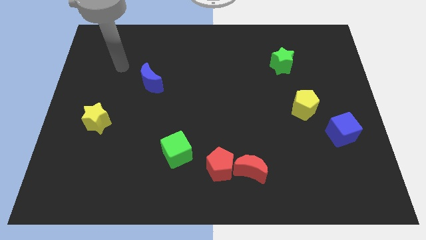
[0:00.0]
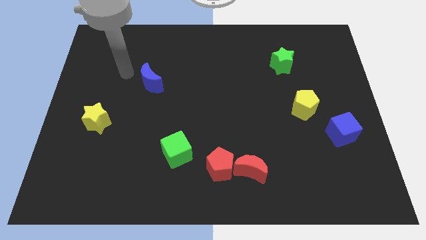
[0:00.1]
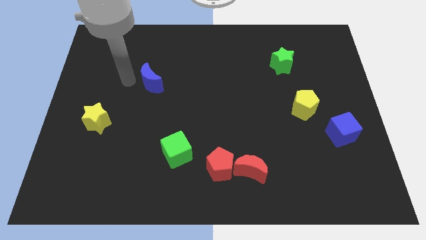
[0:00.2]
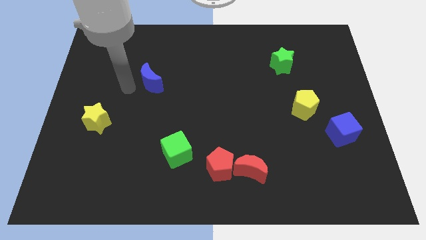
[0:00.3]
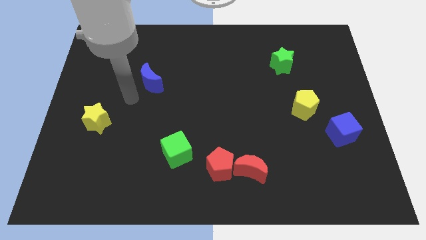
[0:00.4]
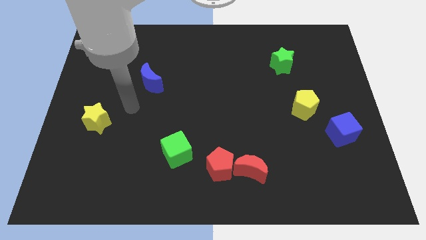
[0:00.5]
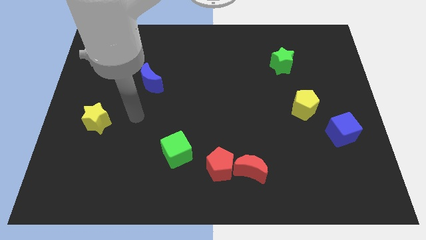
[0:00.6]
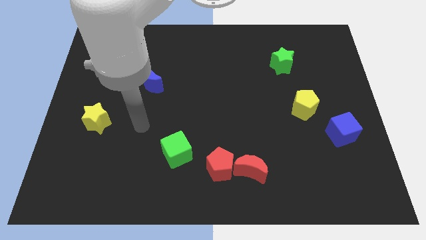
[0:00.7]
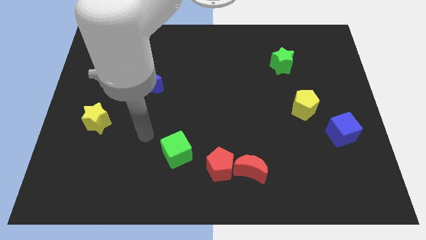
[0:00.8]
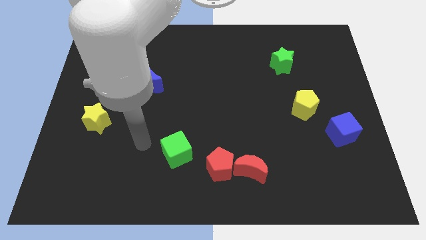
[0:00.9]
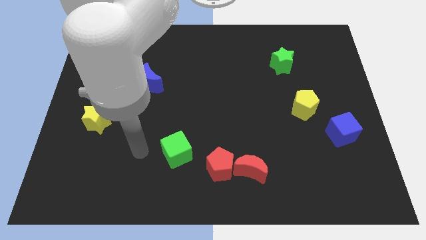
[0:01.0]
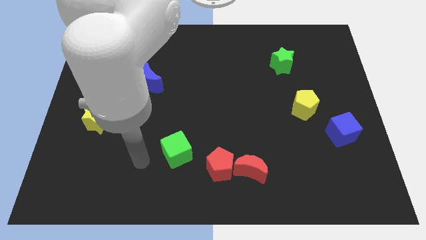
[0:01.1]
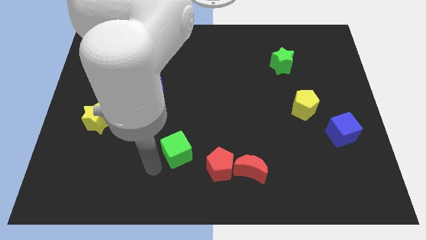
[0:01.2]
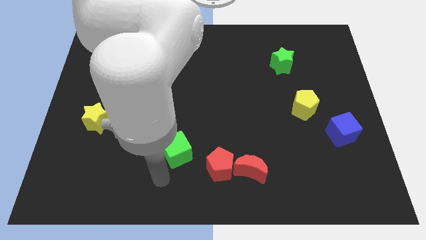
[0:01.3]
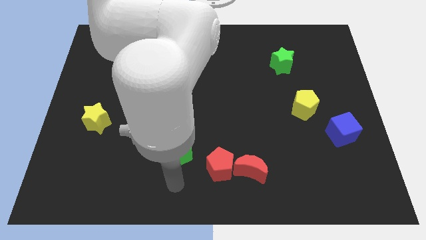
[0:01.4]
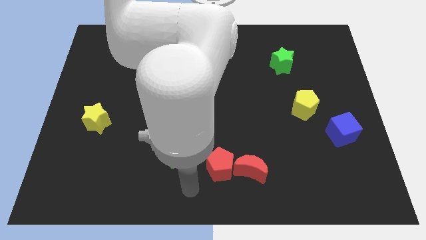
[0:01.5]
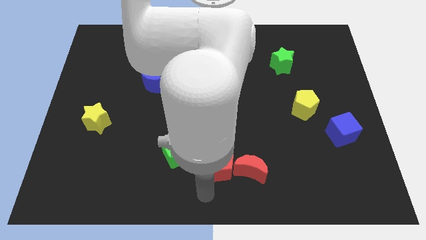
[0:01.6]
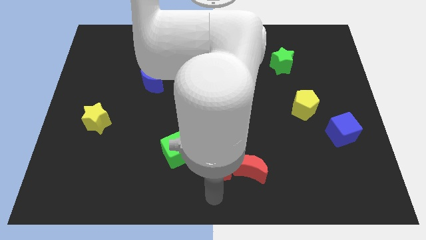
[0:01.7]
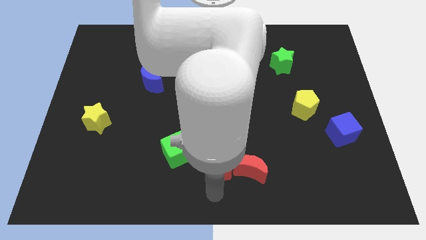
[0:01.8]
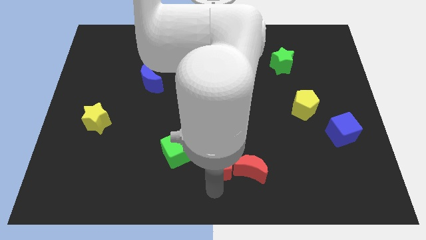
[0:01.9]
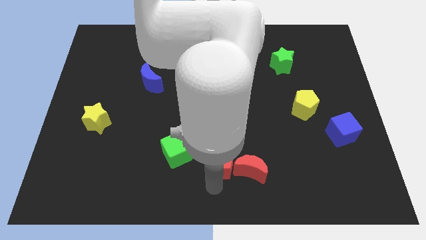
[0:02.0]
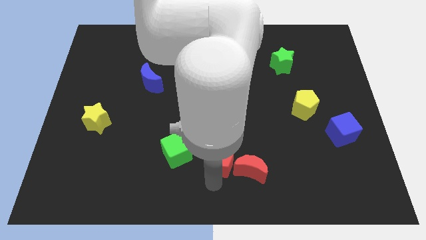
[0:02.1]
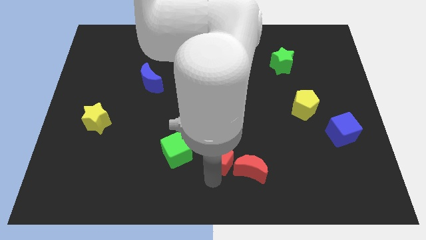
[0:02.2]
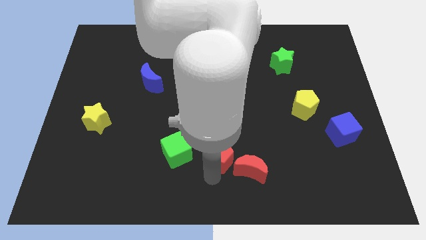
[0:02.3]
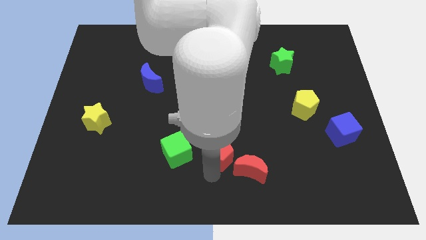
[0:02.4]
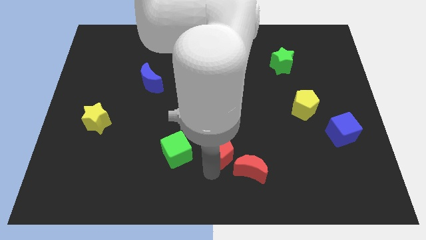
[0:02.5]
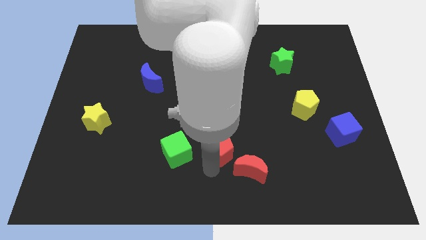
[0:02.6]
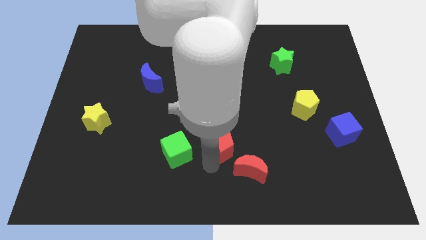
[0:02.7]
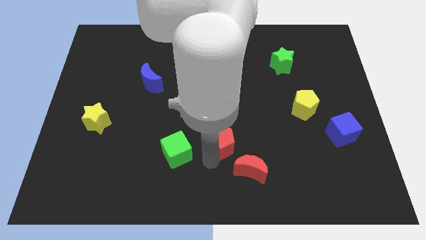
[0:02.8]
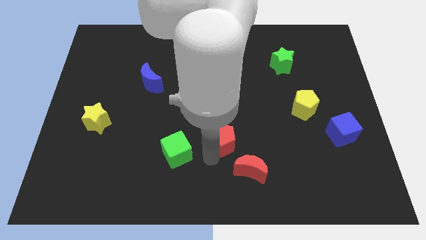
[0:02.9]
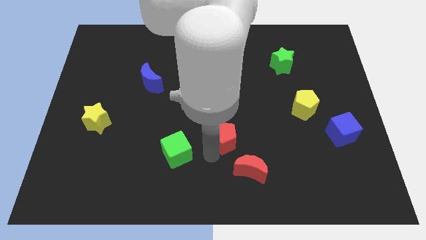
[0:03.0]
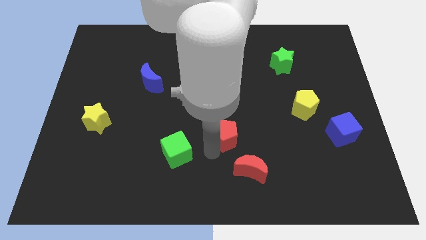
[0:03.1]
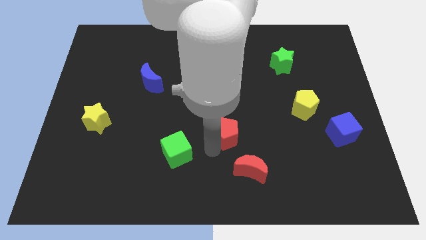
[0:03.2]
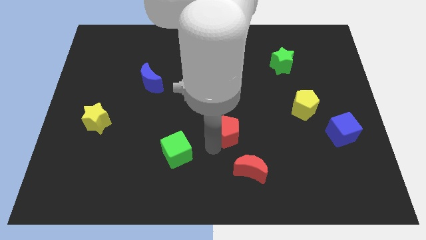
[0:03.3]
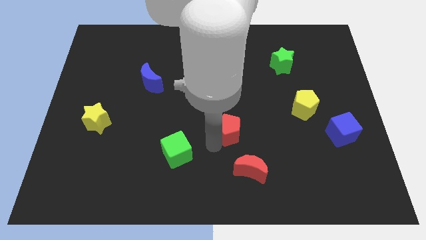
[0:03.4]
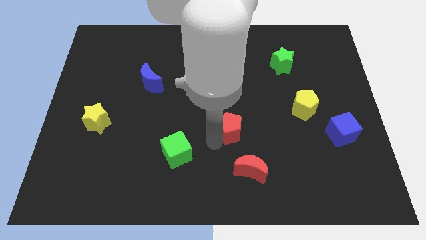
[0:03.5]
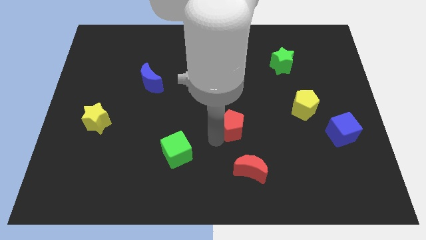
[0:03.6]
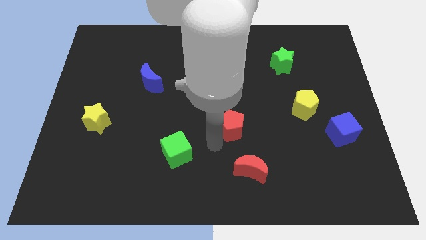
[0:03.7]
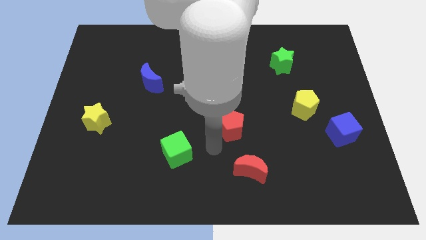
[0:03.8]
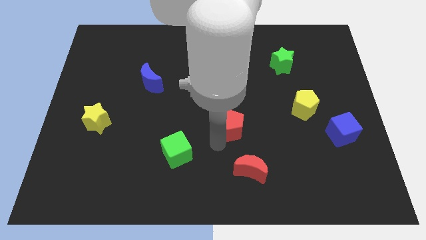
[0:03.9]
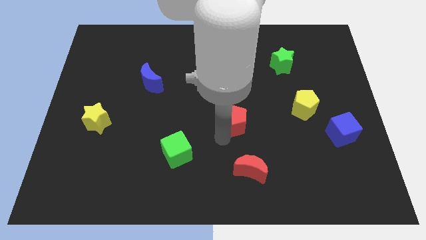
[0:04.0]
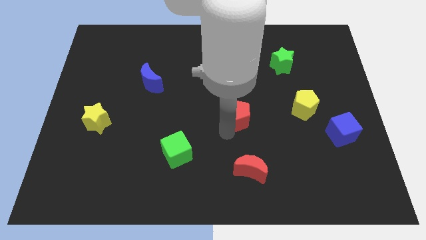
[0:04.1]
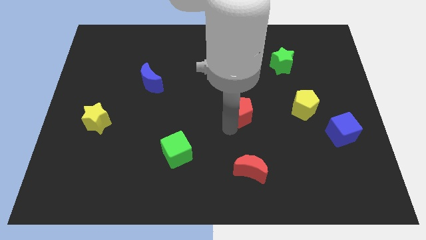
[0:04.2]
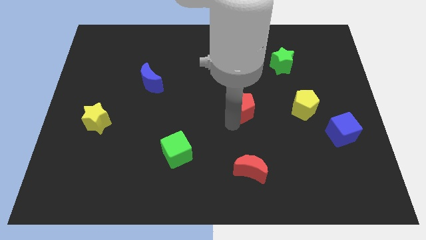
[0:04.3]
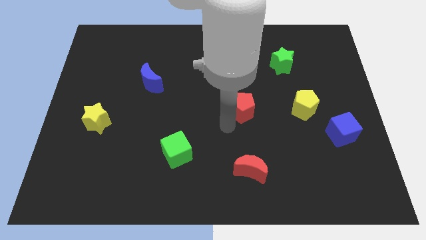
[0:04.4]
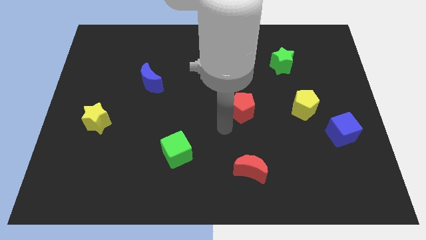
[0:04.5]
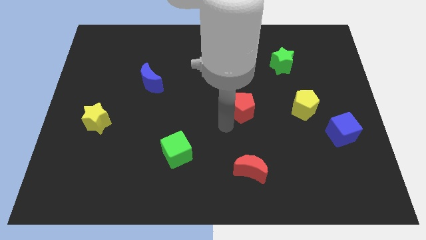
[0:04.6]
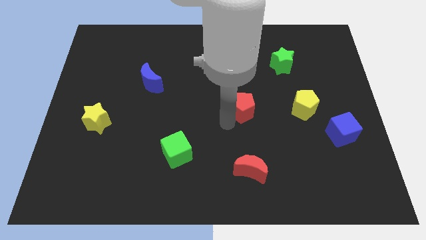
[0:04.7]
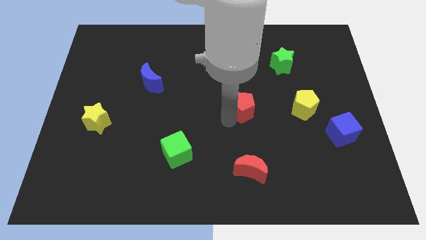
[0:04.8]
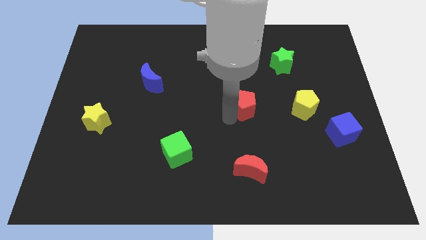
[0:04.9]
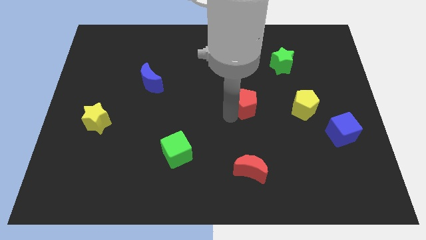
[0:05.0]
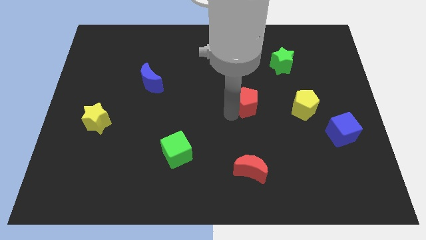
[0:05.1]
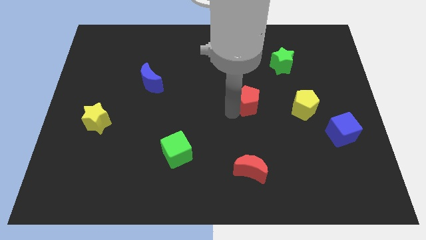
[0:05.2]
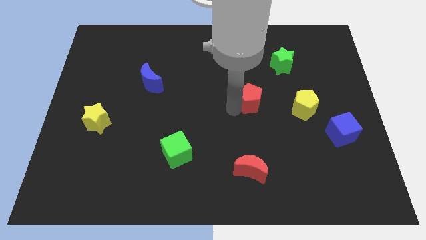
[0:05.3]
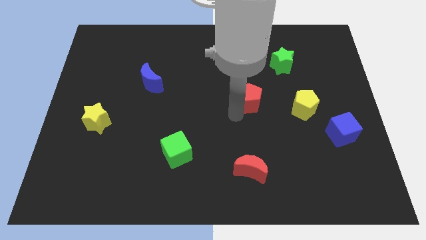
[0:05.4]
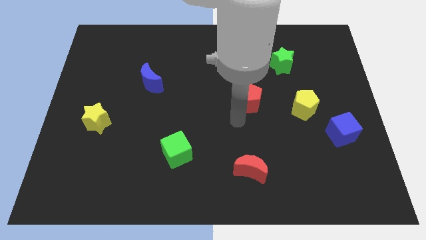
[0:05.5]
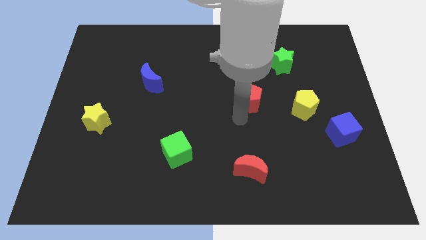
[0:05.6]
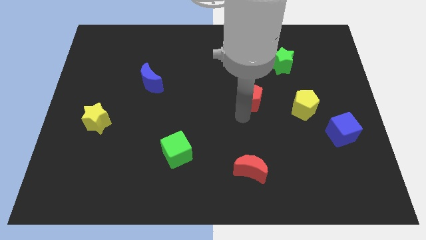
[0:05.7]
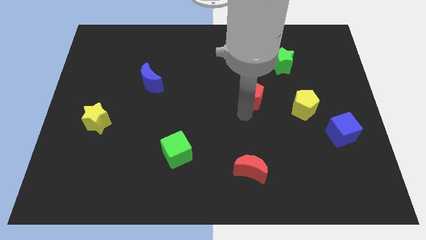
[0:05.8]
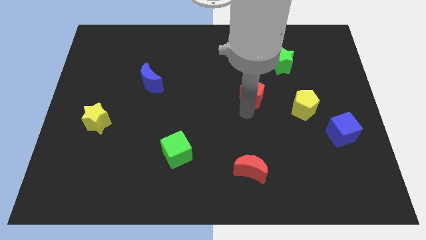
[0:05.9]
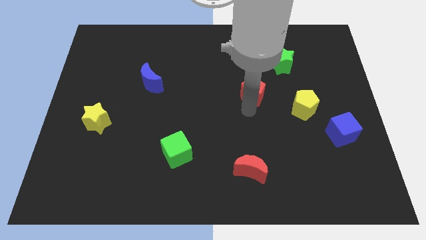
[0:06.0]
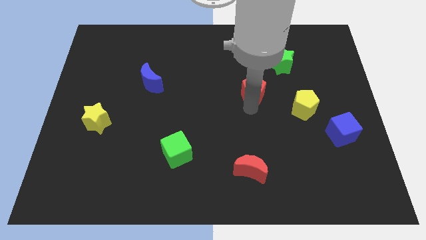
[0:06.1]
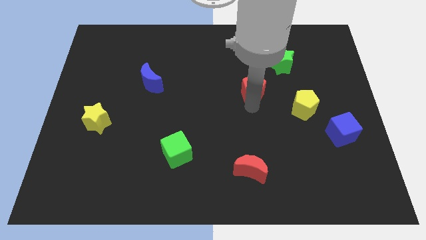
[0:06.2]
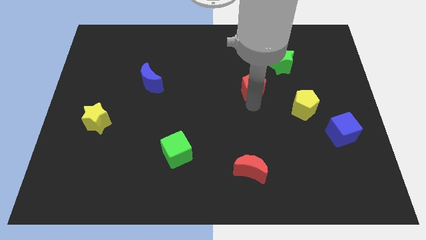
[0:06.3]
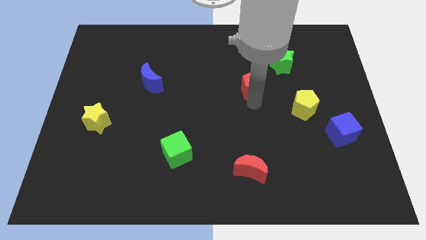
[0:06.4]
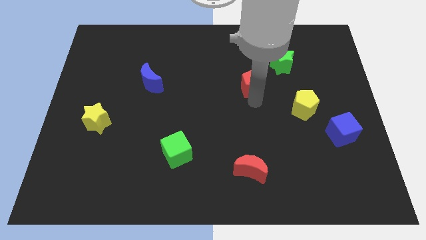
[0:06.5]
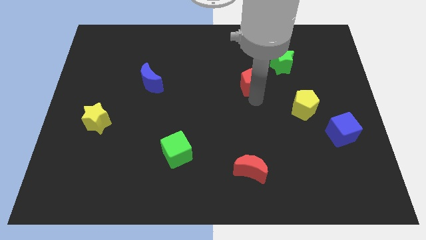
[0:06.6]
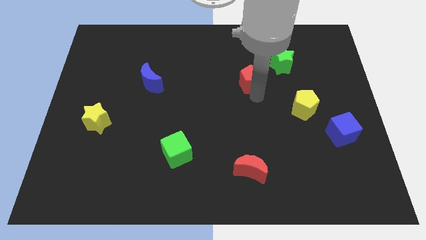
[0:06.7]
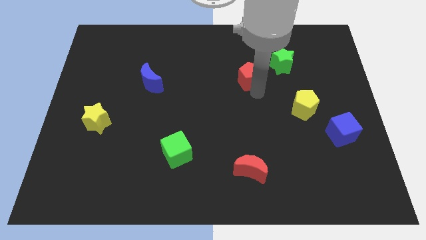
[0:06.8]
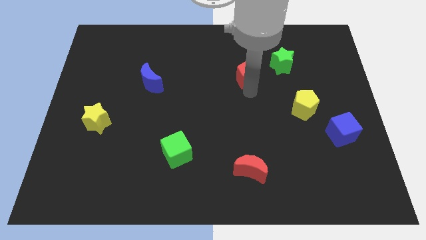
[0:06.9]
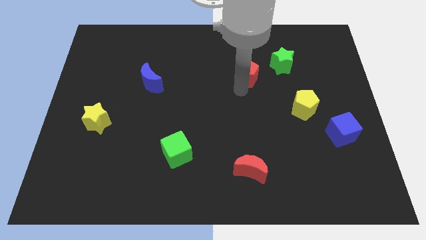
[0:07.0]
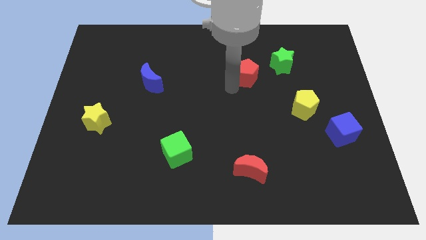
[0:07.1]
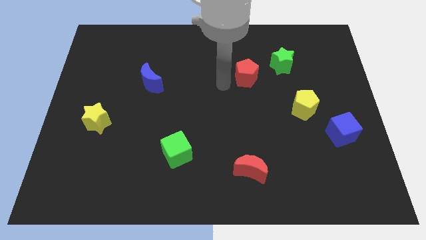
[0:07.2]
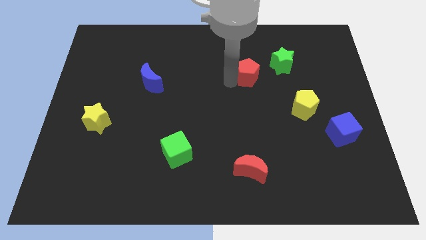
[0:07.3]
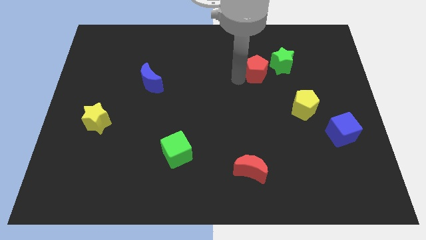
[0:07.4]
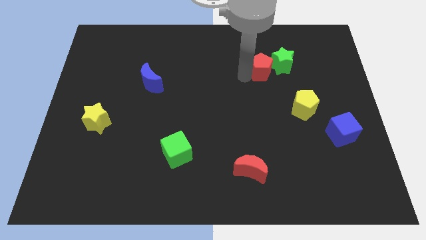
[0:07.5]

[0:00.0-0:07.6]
slide the red pentagon close to the green star

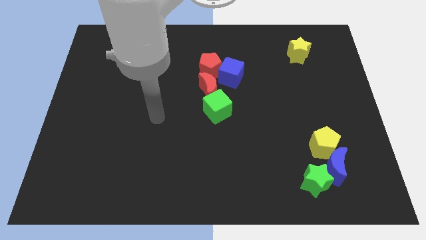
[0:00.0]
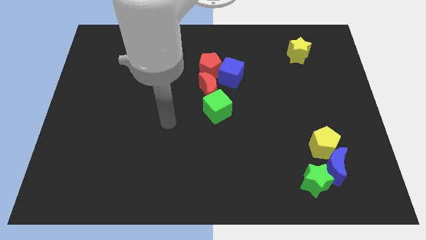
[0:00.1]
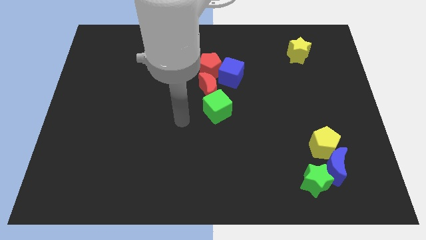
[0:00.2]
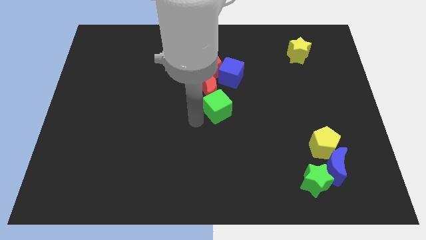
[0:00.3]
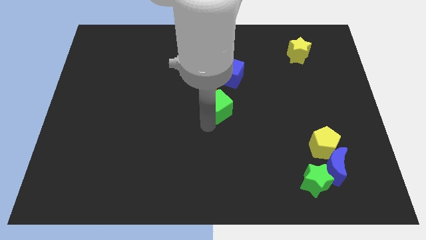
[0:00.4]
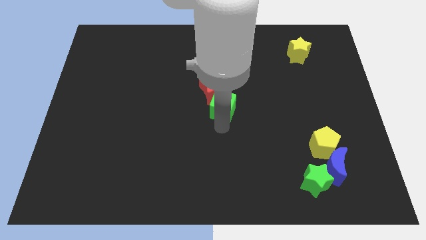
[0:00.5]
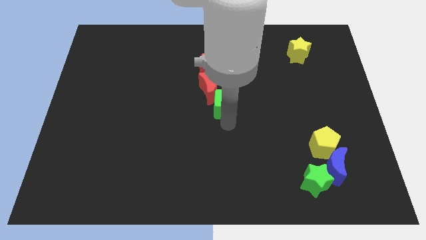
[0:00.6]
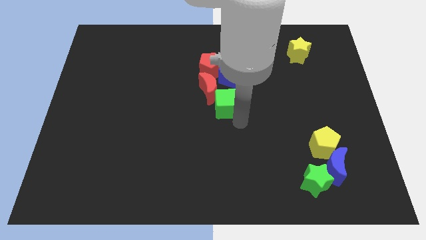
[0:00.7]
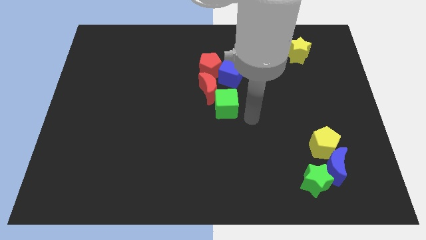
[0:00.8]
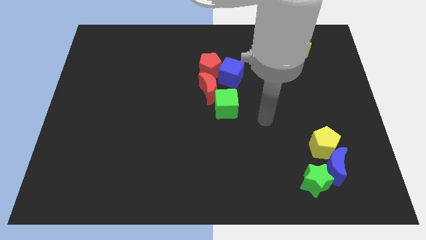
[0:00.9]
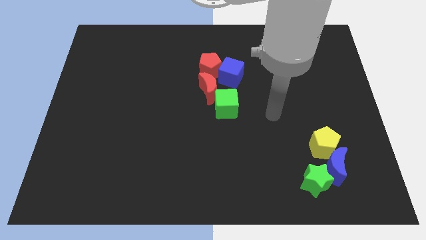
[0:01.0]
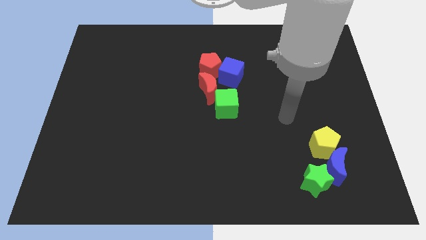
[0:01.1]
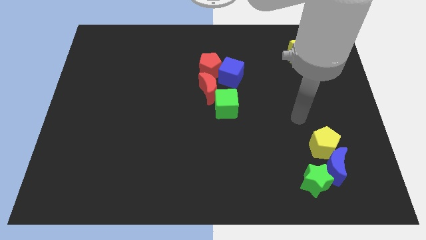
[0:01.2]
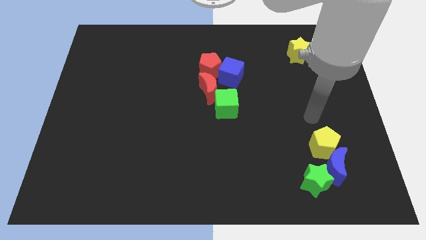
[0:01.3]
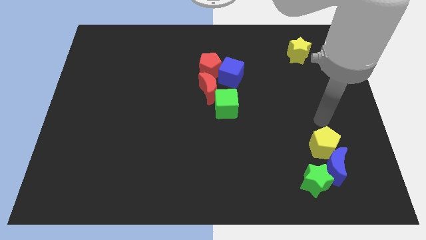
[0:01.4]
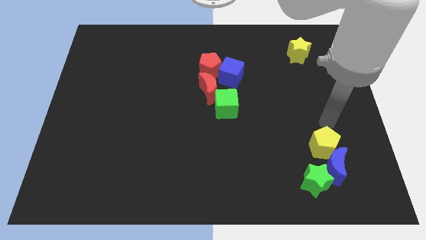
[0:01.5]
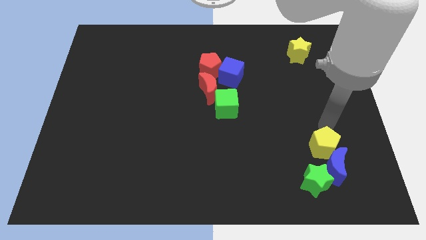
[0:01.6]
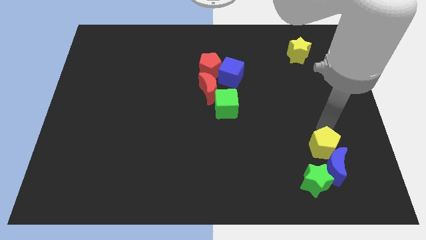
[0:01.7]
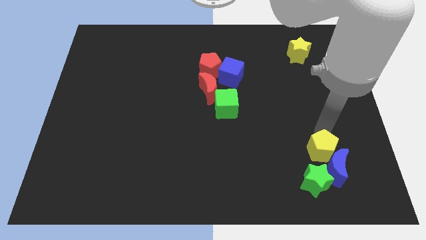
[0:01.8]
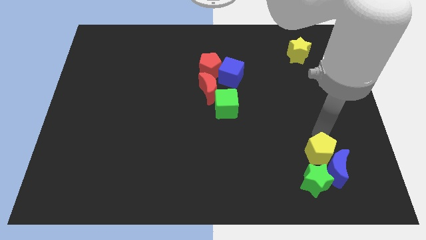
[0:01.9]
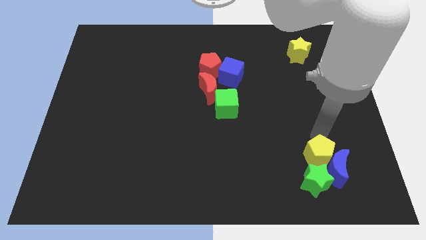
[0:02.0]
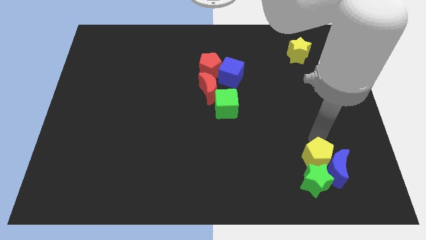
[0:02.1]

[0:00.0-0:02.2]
put the yellow pentagon to the green star
